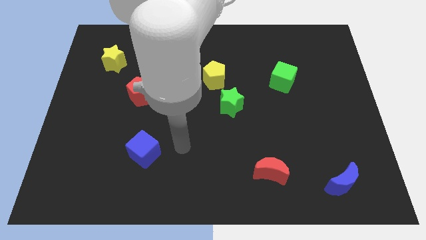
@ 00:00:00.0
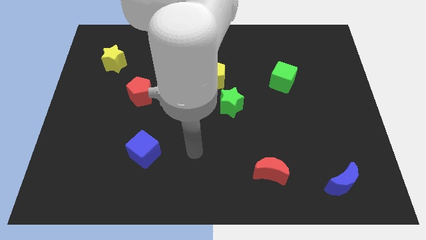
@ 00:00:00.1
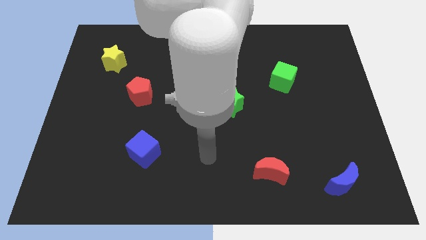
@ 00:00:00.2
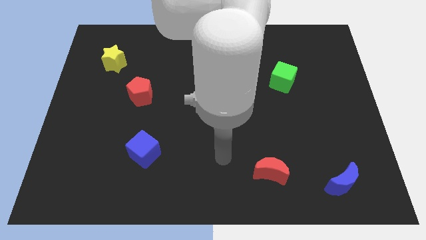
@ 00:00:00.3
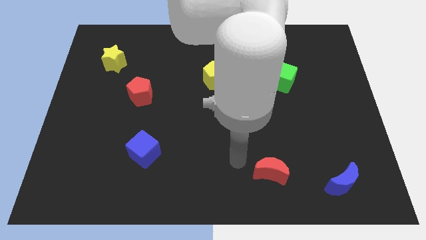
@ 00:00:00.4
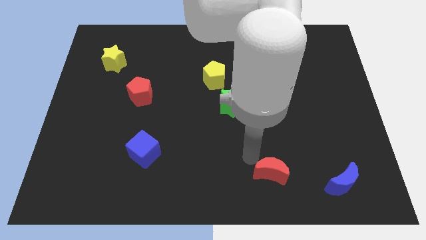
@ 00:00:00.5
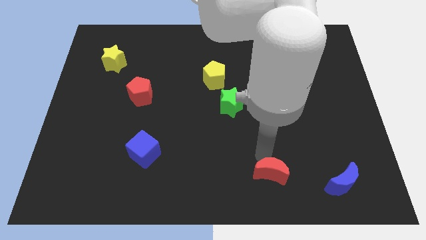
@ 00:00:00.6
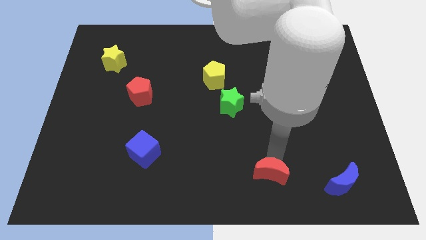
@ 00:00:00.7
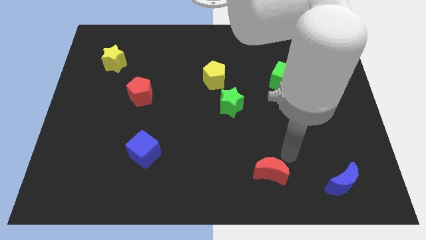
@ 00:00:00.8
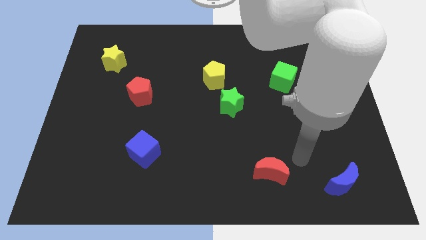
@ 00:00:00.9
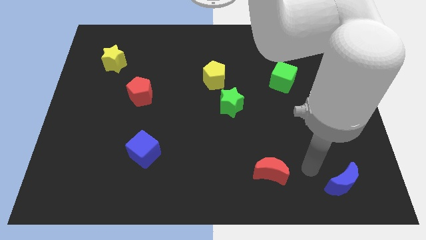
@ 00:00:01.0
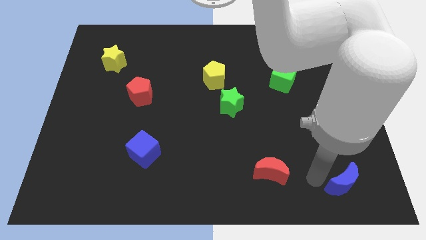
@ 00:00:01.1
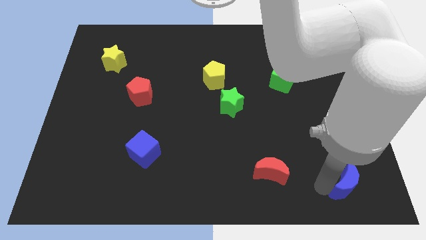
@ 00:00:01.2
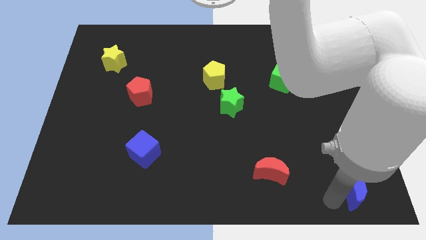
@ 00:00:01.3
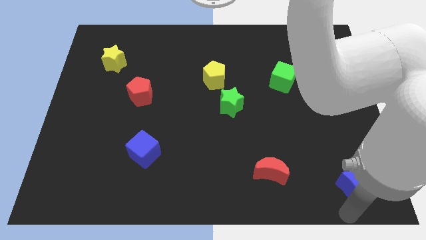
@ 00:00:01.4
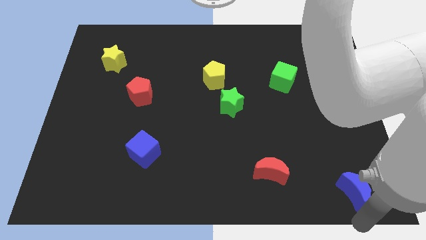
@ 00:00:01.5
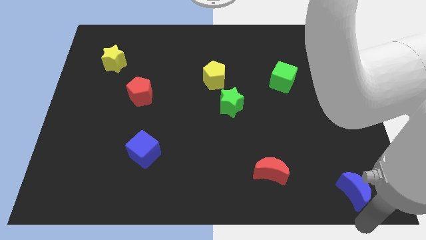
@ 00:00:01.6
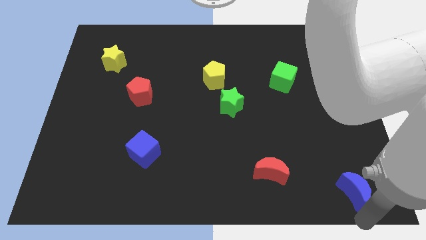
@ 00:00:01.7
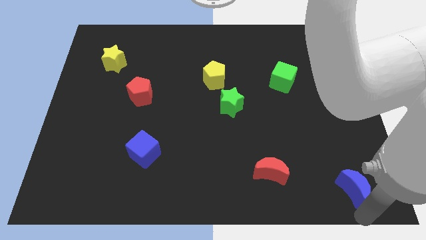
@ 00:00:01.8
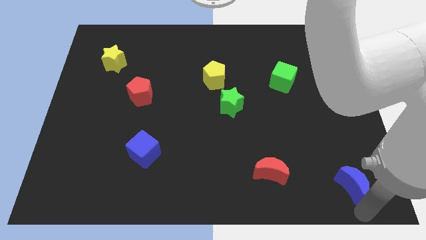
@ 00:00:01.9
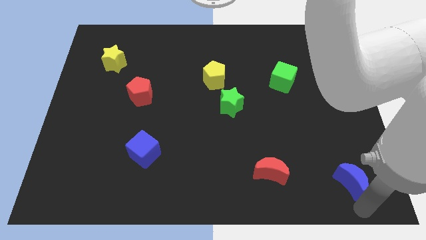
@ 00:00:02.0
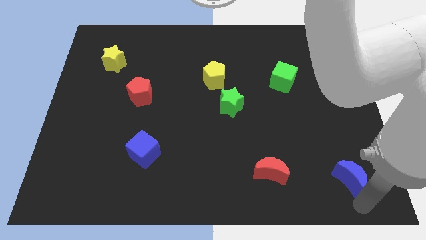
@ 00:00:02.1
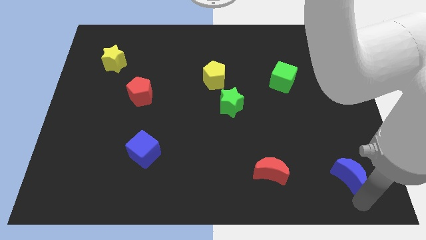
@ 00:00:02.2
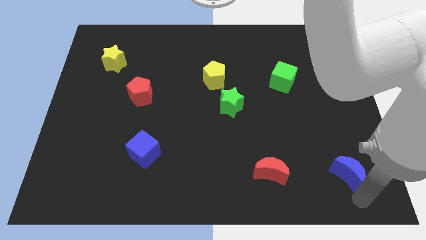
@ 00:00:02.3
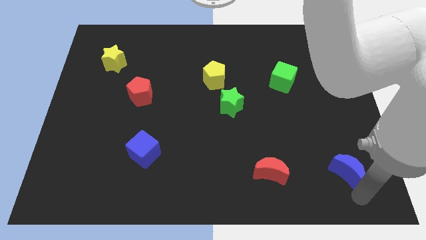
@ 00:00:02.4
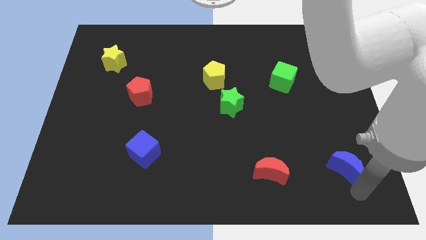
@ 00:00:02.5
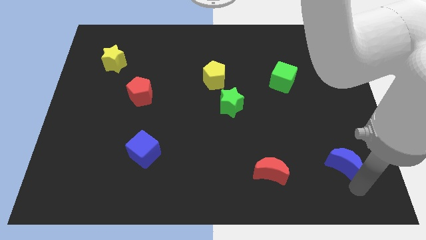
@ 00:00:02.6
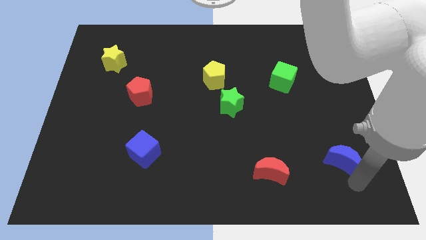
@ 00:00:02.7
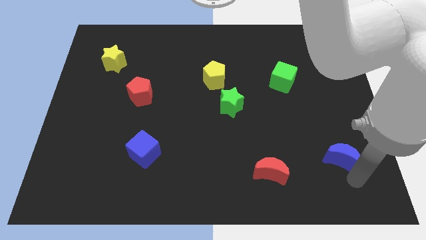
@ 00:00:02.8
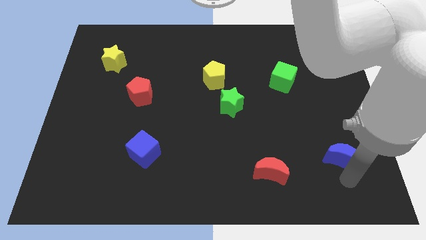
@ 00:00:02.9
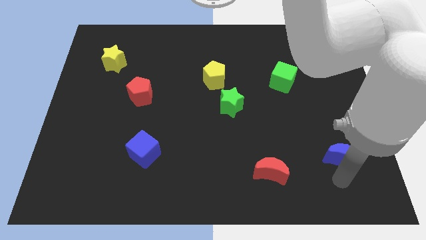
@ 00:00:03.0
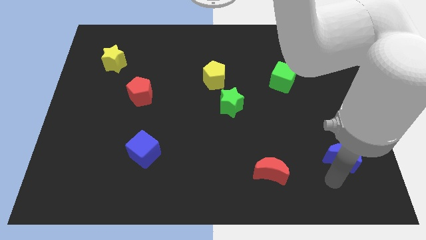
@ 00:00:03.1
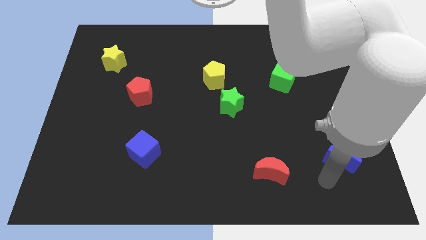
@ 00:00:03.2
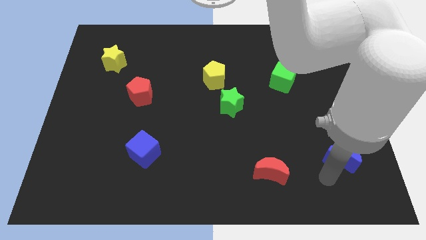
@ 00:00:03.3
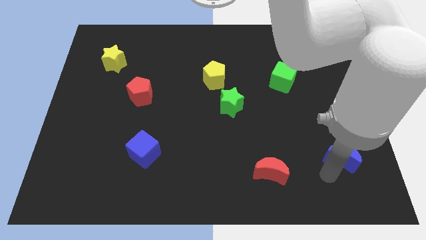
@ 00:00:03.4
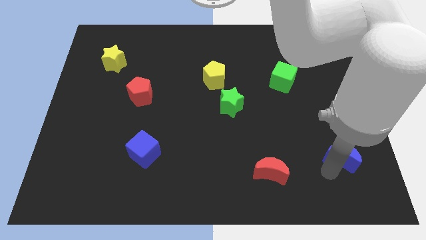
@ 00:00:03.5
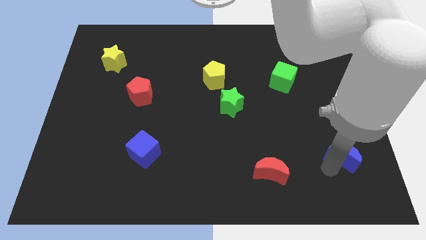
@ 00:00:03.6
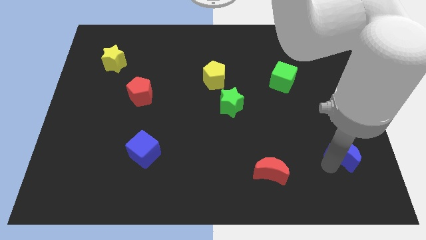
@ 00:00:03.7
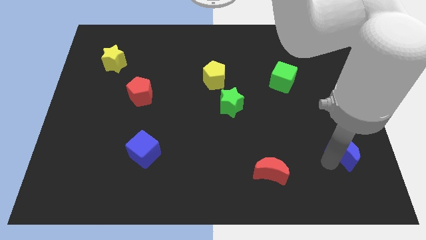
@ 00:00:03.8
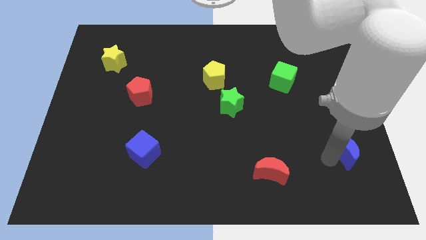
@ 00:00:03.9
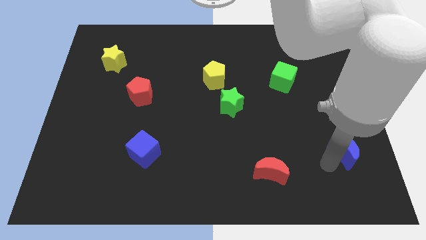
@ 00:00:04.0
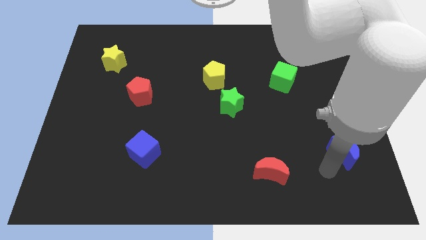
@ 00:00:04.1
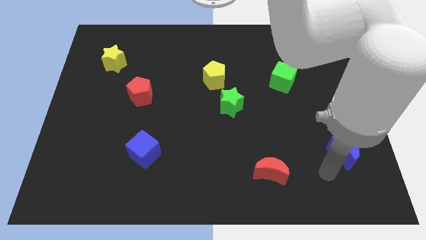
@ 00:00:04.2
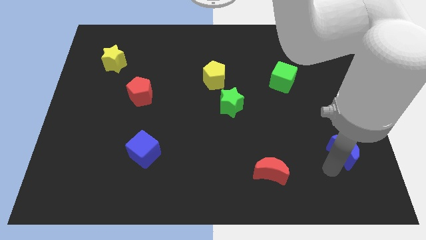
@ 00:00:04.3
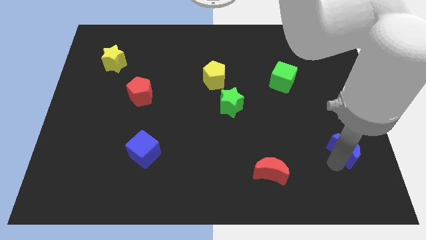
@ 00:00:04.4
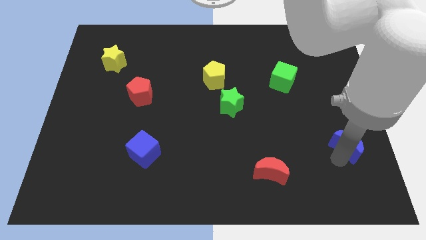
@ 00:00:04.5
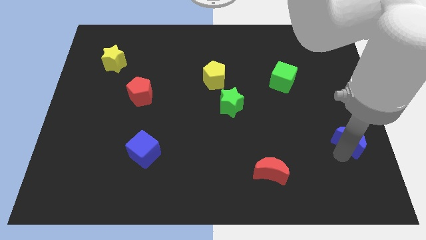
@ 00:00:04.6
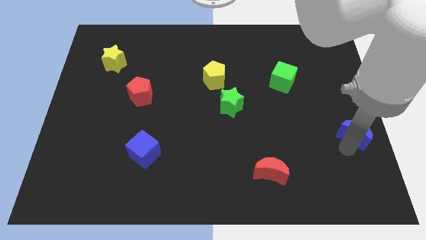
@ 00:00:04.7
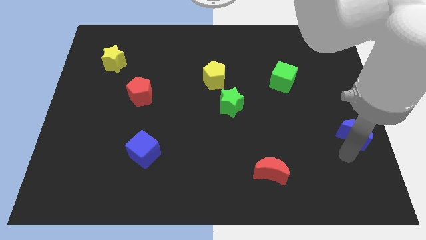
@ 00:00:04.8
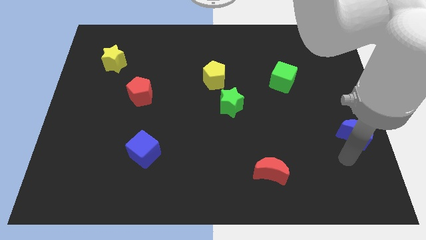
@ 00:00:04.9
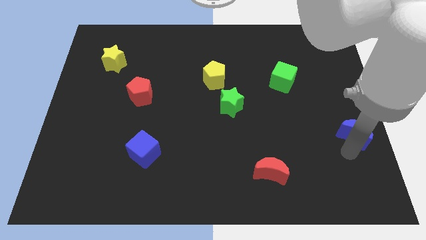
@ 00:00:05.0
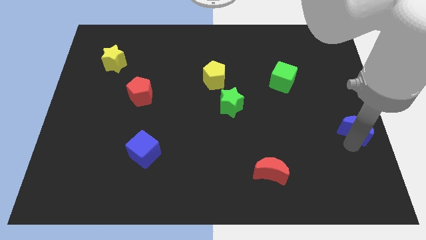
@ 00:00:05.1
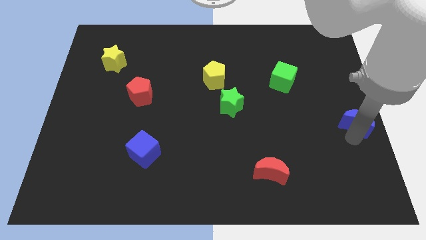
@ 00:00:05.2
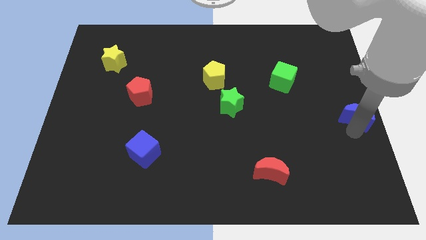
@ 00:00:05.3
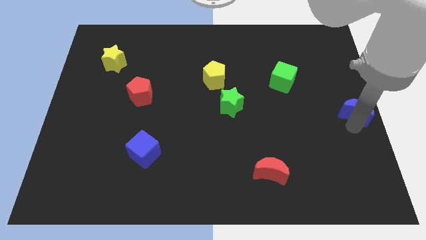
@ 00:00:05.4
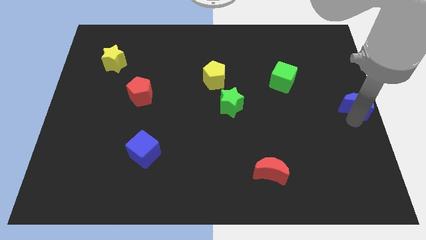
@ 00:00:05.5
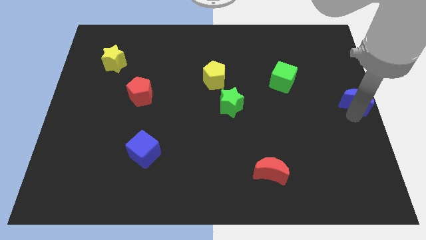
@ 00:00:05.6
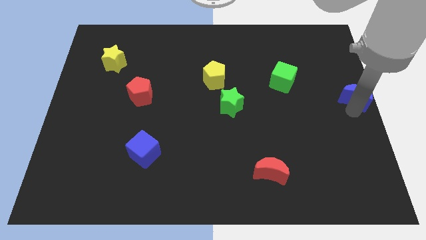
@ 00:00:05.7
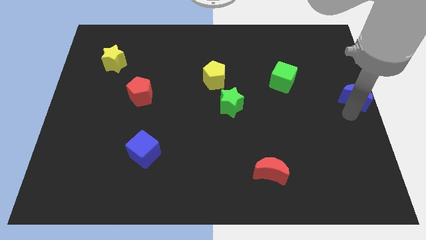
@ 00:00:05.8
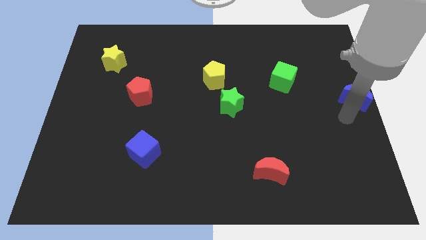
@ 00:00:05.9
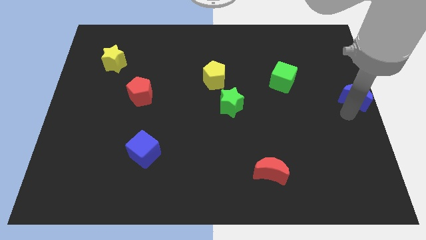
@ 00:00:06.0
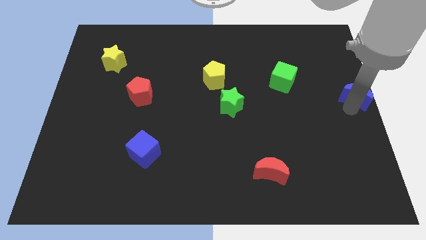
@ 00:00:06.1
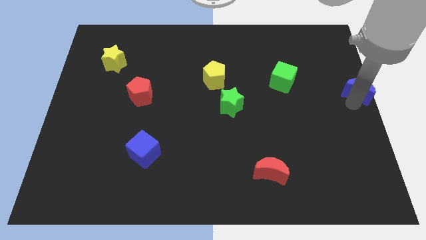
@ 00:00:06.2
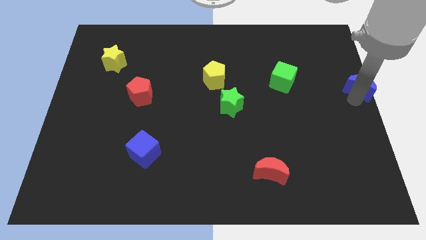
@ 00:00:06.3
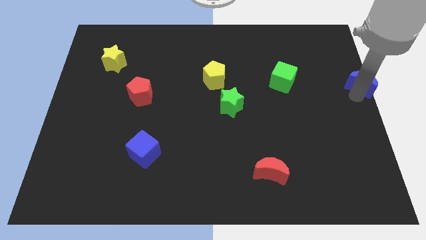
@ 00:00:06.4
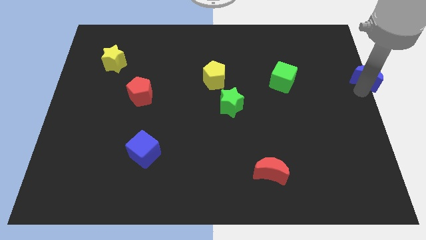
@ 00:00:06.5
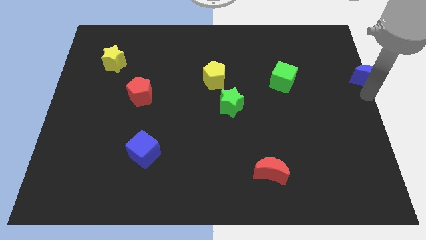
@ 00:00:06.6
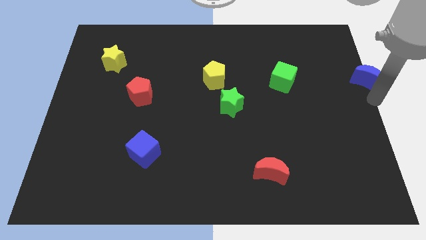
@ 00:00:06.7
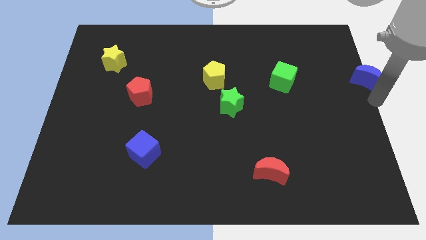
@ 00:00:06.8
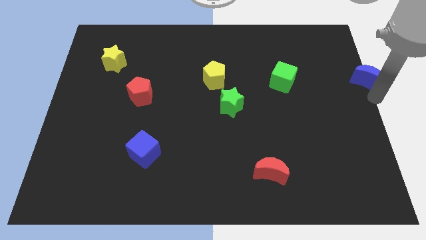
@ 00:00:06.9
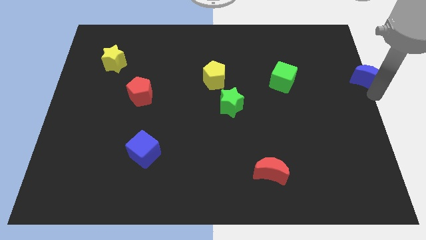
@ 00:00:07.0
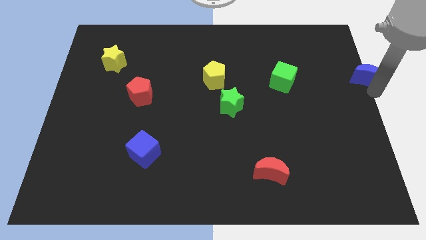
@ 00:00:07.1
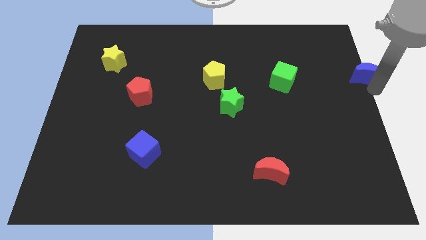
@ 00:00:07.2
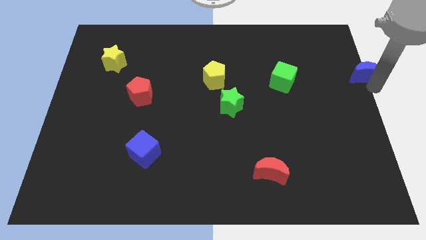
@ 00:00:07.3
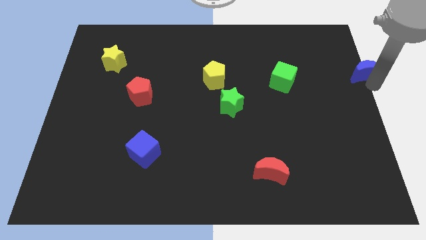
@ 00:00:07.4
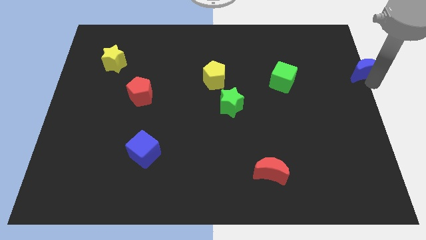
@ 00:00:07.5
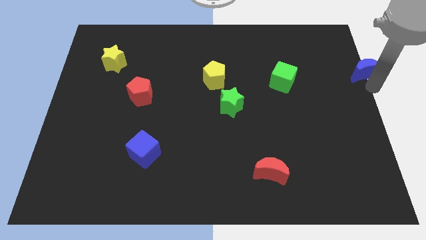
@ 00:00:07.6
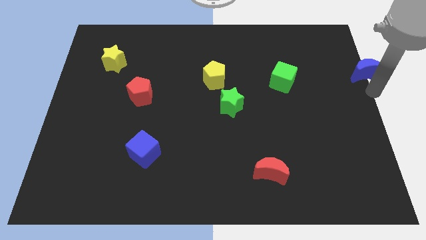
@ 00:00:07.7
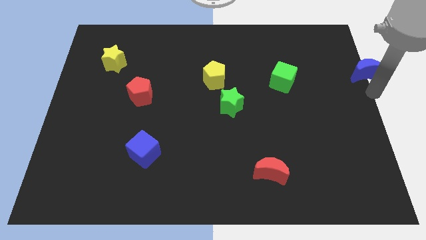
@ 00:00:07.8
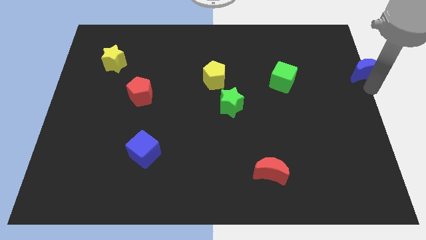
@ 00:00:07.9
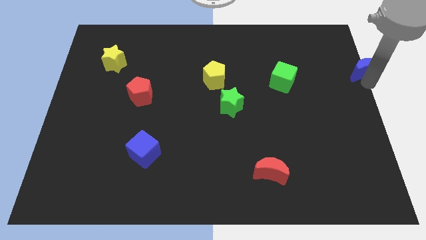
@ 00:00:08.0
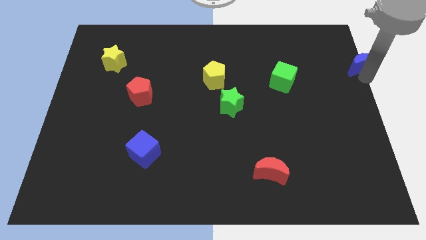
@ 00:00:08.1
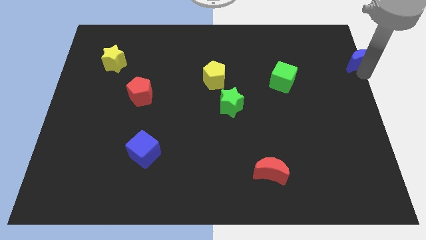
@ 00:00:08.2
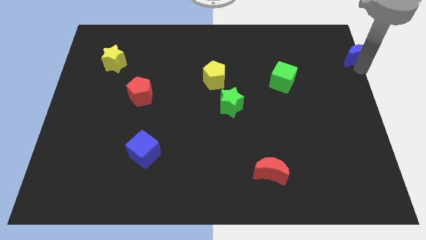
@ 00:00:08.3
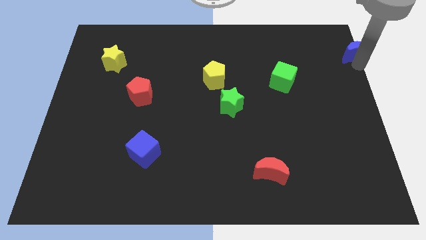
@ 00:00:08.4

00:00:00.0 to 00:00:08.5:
put the blue moon to the upper right corner
